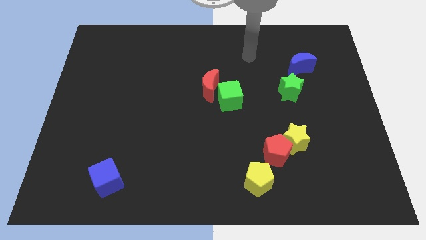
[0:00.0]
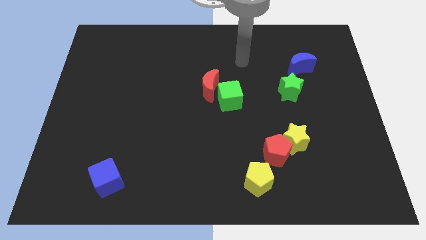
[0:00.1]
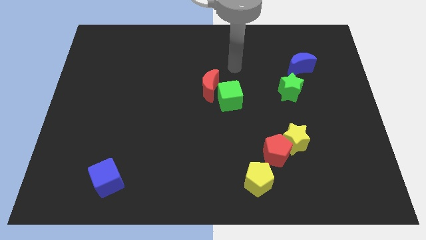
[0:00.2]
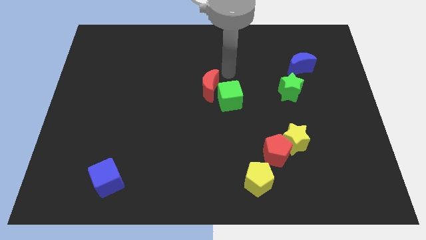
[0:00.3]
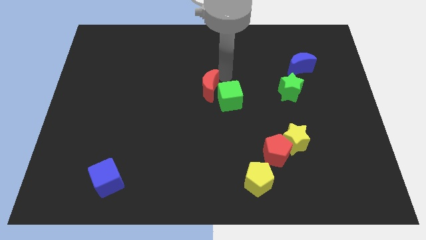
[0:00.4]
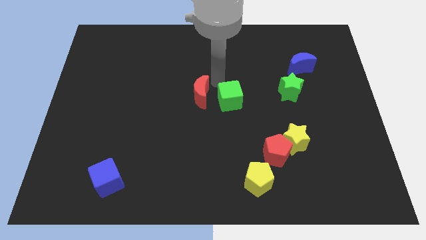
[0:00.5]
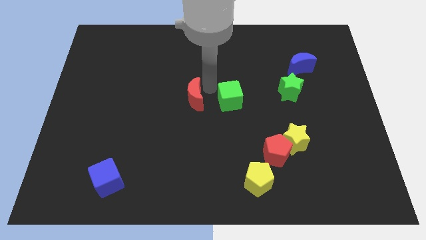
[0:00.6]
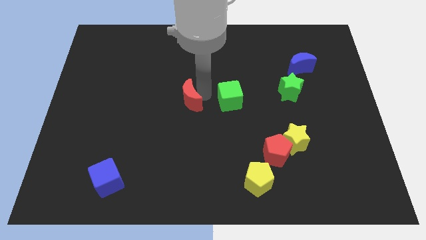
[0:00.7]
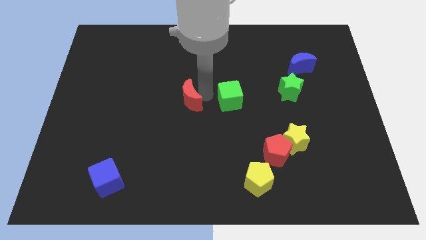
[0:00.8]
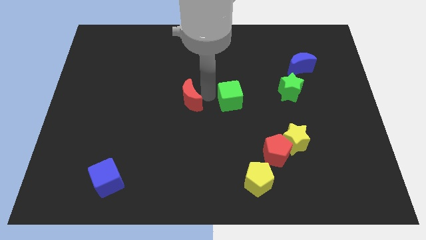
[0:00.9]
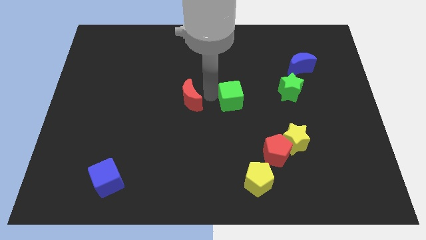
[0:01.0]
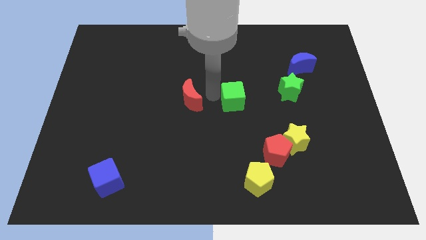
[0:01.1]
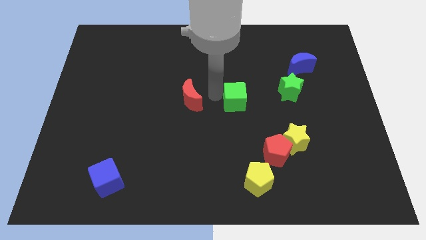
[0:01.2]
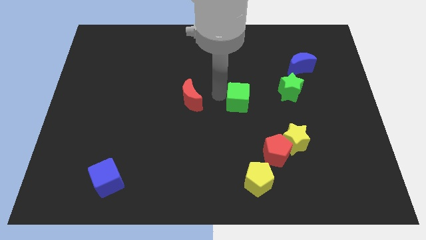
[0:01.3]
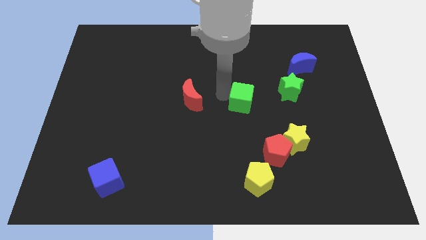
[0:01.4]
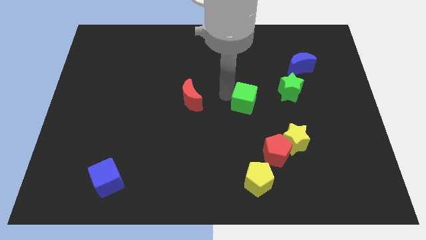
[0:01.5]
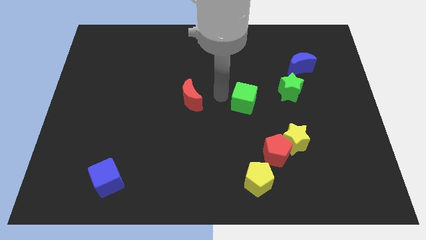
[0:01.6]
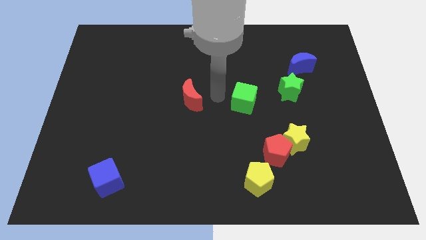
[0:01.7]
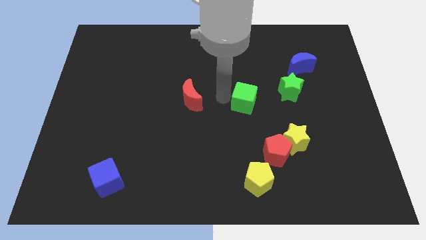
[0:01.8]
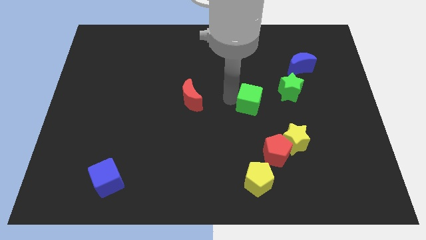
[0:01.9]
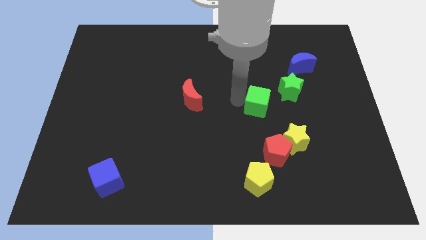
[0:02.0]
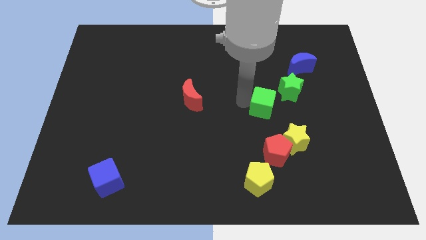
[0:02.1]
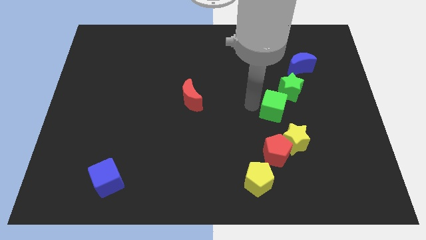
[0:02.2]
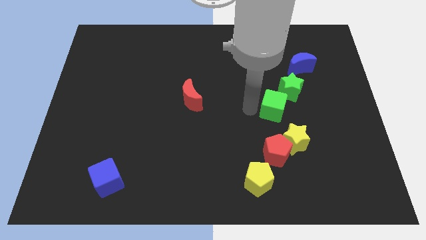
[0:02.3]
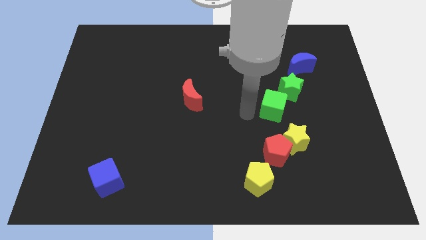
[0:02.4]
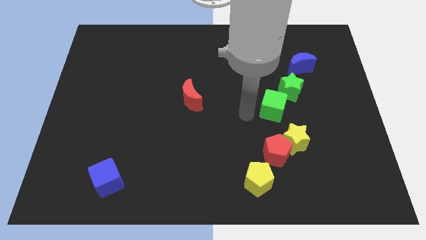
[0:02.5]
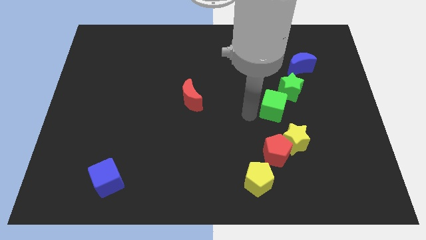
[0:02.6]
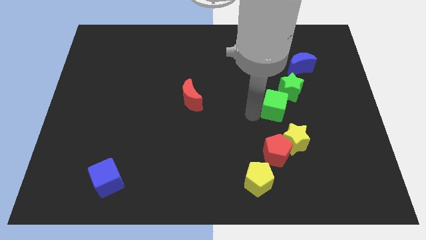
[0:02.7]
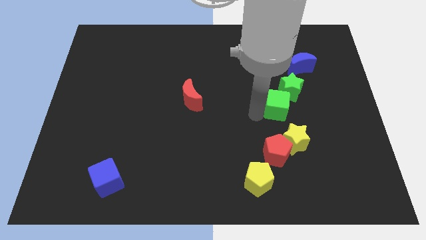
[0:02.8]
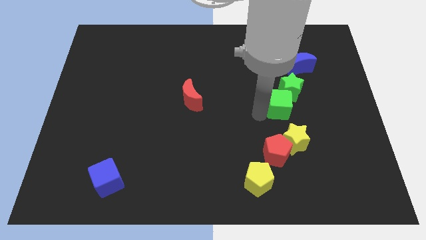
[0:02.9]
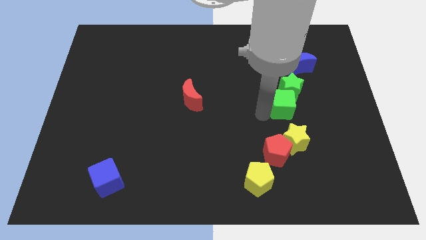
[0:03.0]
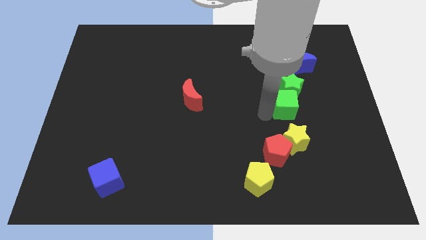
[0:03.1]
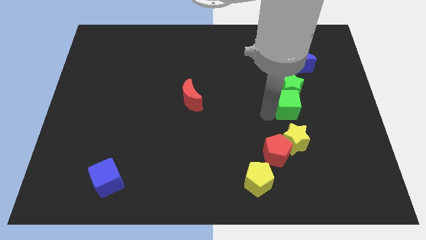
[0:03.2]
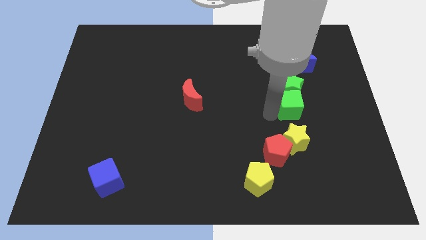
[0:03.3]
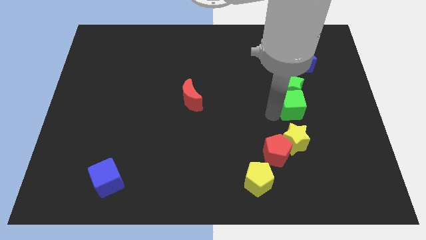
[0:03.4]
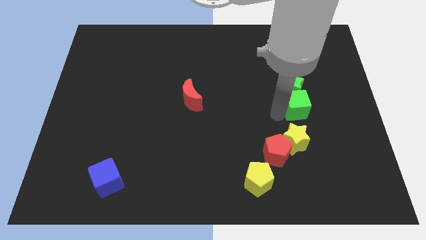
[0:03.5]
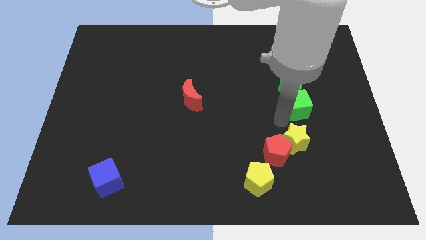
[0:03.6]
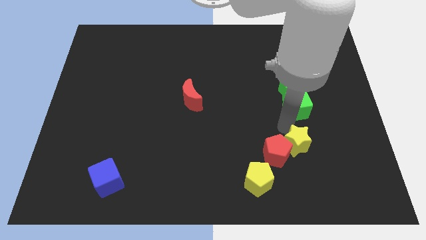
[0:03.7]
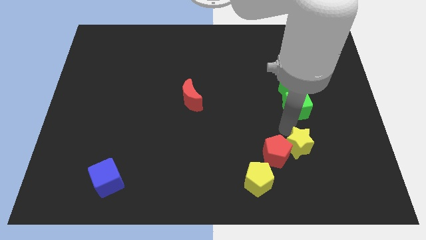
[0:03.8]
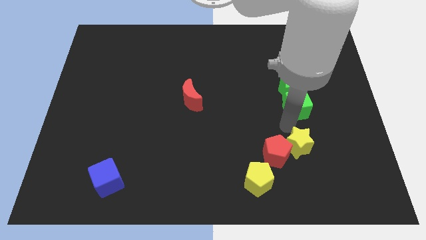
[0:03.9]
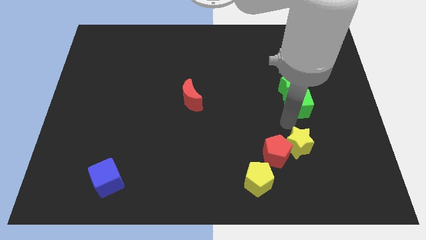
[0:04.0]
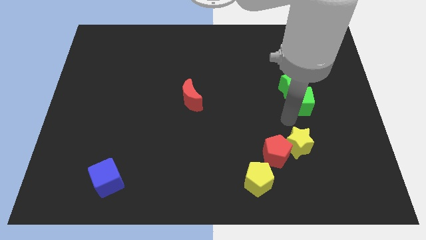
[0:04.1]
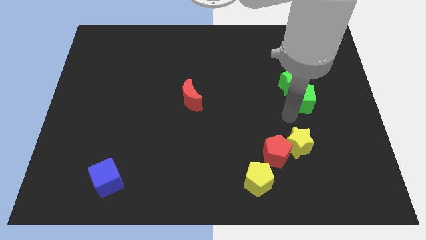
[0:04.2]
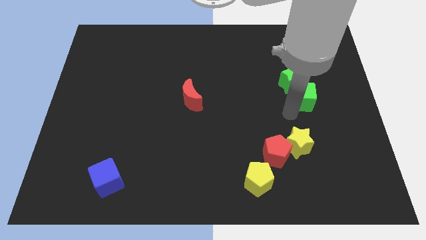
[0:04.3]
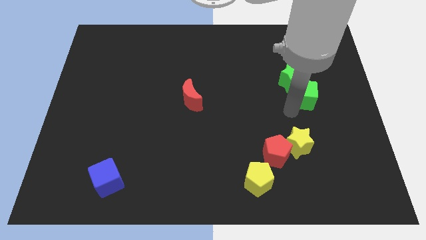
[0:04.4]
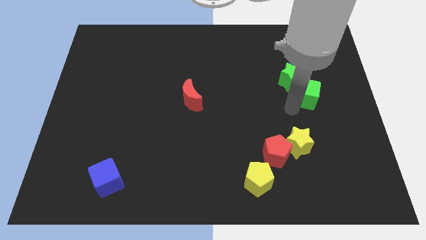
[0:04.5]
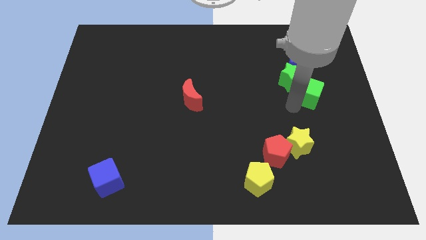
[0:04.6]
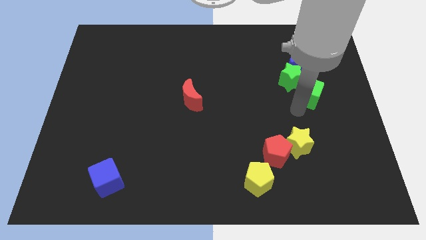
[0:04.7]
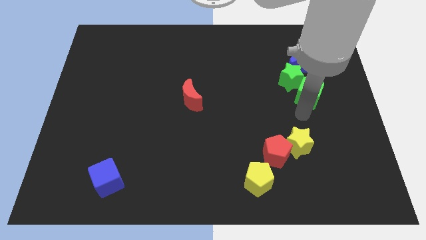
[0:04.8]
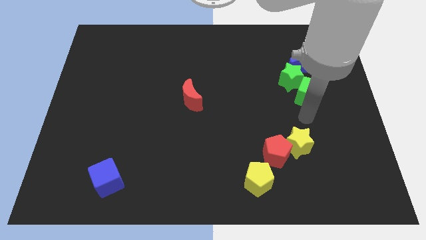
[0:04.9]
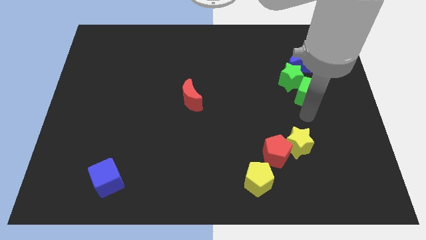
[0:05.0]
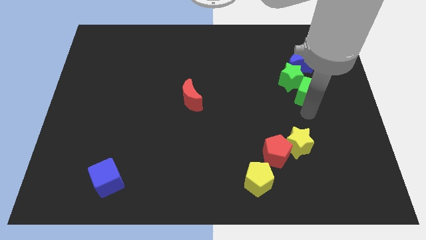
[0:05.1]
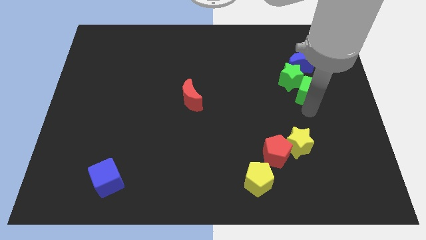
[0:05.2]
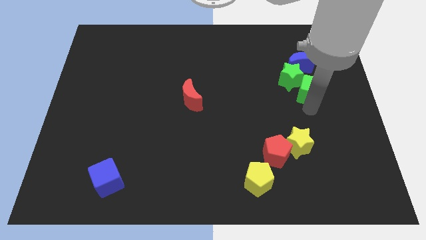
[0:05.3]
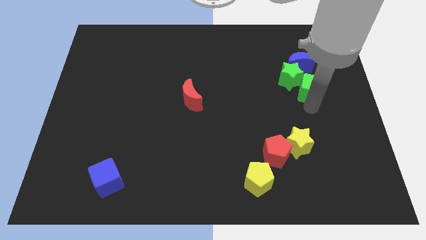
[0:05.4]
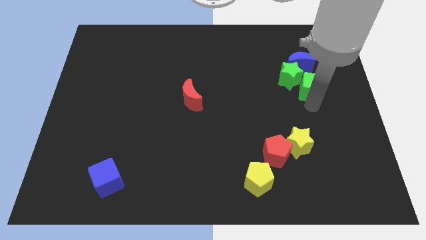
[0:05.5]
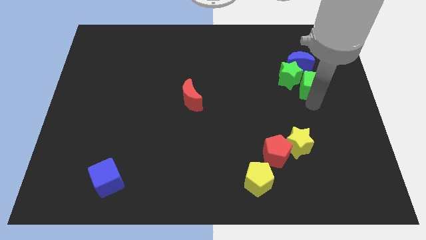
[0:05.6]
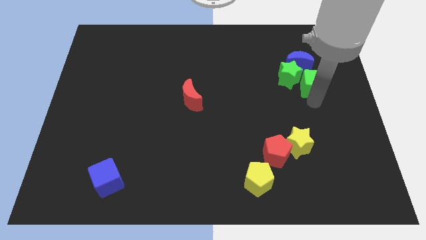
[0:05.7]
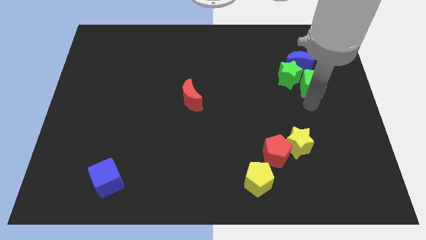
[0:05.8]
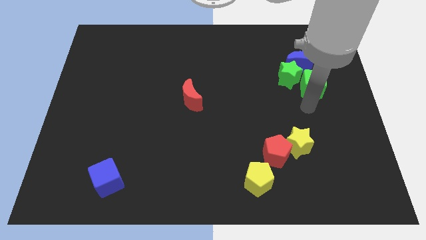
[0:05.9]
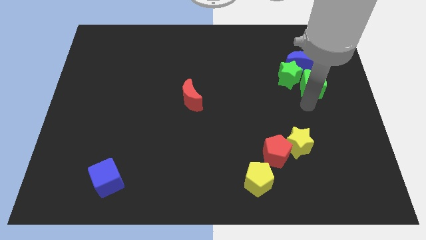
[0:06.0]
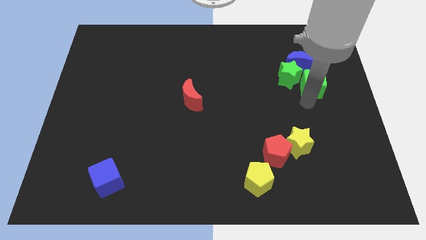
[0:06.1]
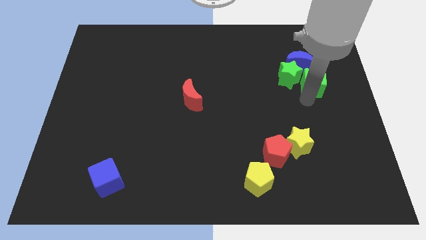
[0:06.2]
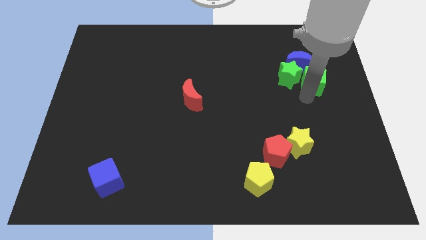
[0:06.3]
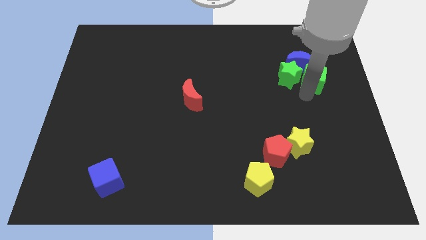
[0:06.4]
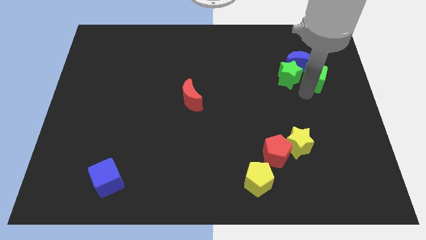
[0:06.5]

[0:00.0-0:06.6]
move the green cube diagonally up and to the right of the green star
